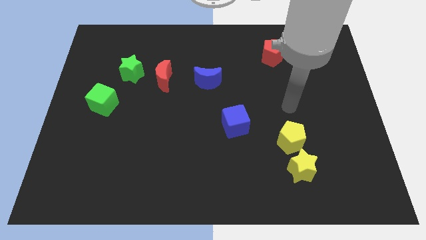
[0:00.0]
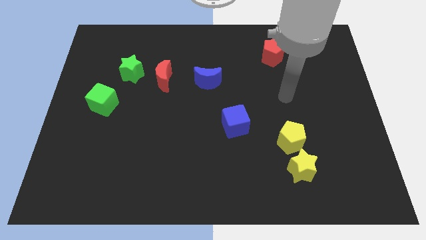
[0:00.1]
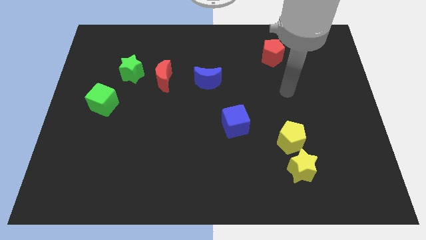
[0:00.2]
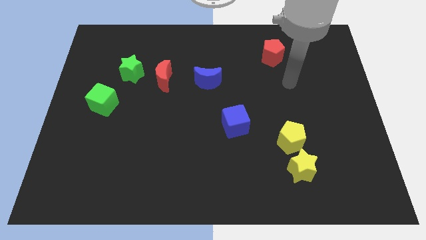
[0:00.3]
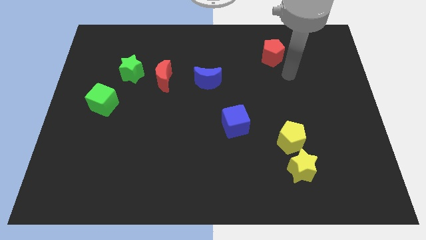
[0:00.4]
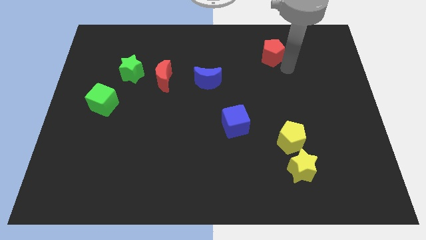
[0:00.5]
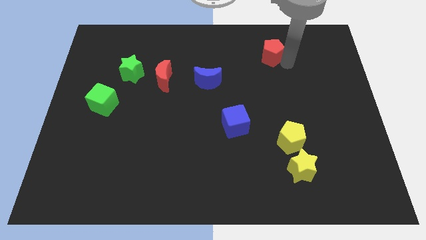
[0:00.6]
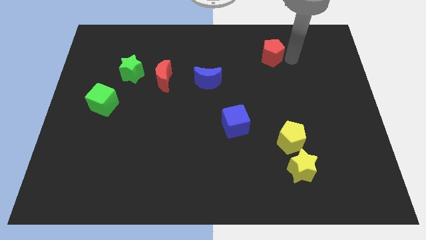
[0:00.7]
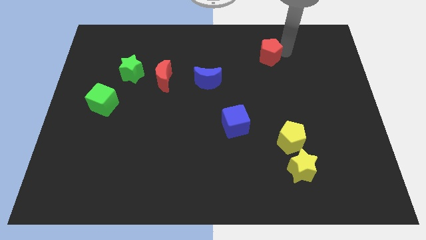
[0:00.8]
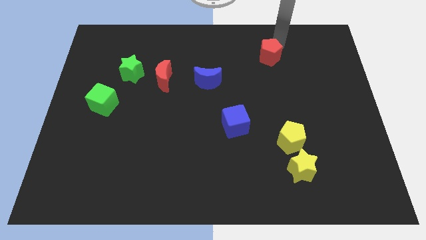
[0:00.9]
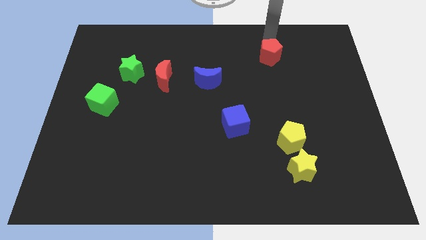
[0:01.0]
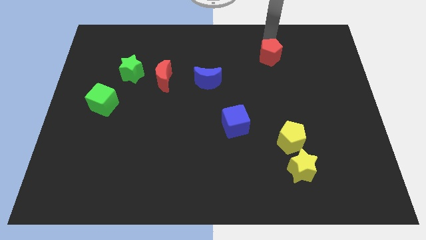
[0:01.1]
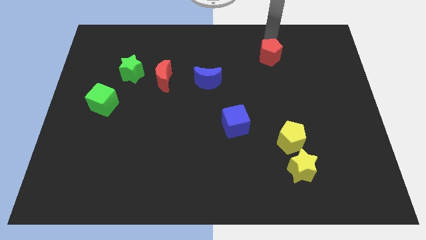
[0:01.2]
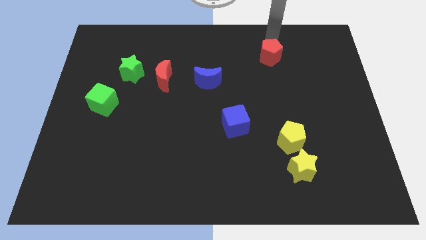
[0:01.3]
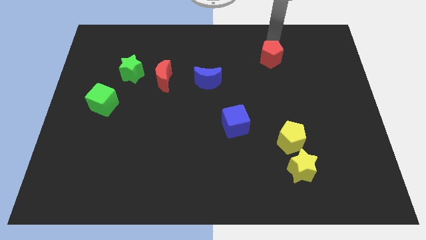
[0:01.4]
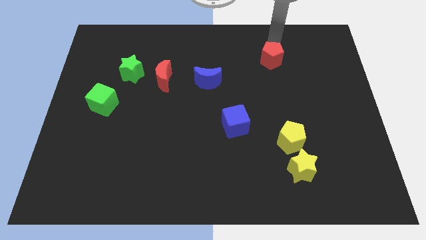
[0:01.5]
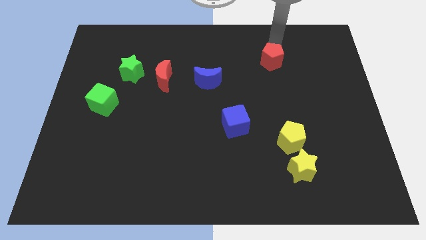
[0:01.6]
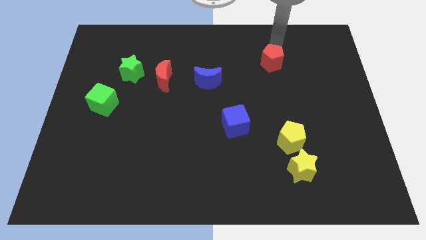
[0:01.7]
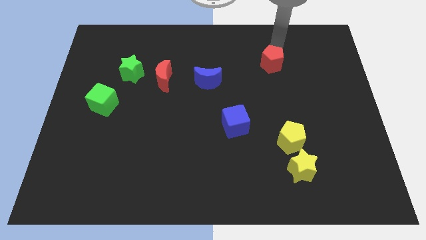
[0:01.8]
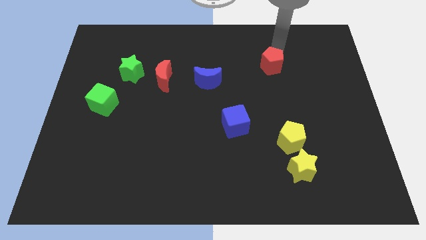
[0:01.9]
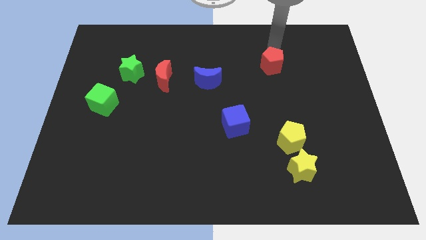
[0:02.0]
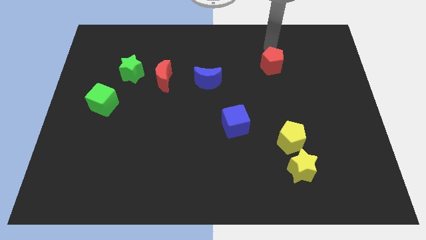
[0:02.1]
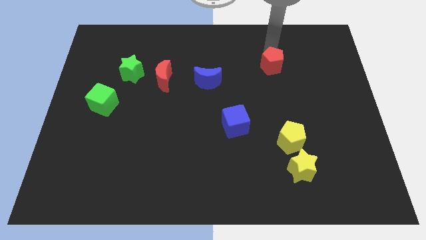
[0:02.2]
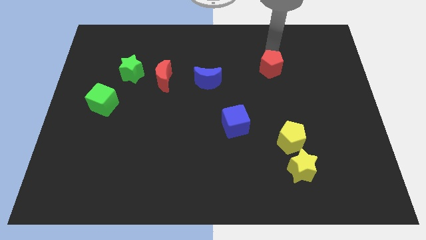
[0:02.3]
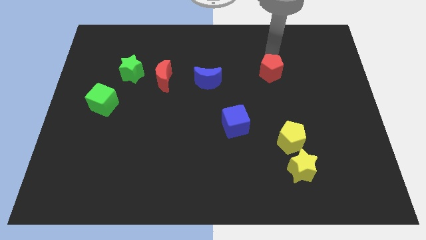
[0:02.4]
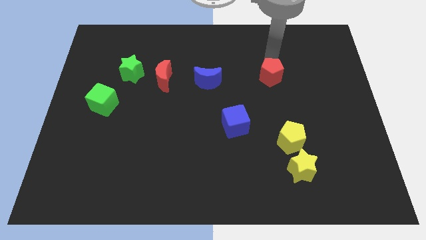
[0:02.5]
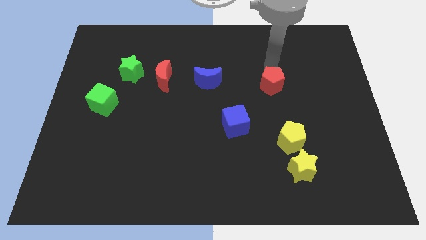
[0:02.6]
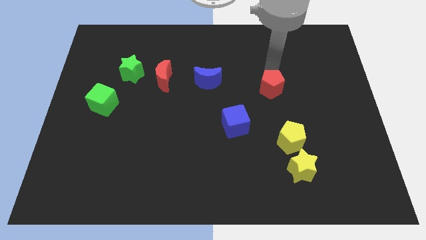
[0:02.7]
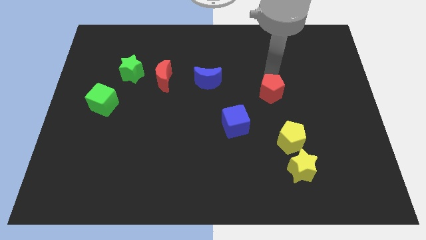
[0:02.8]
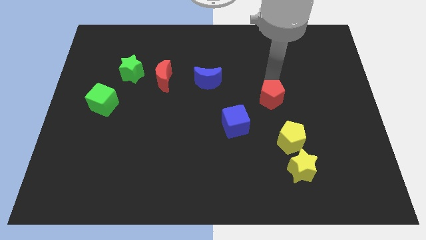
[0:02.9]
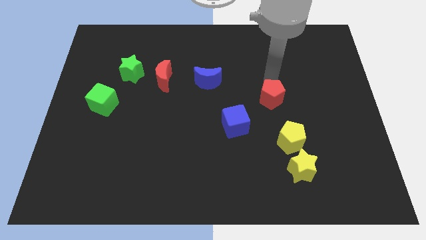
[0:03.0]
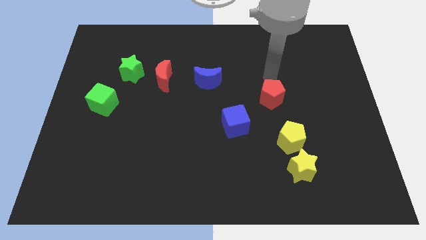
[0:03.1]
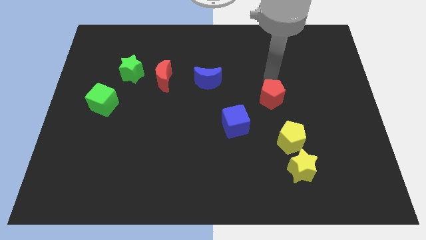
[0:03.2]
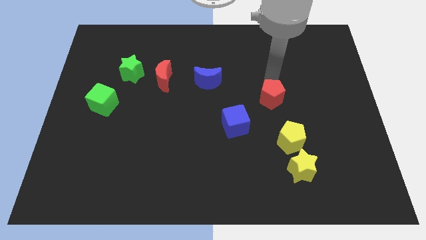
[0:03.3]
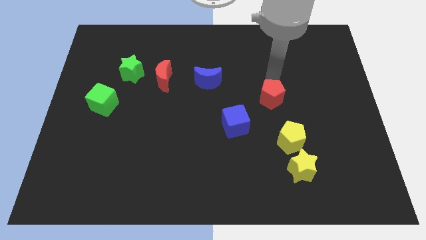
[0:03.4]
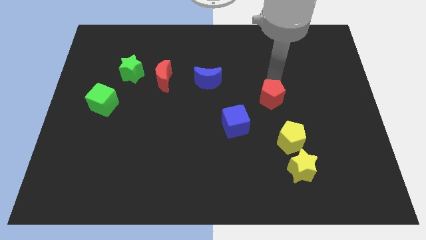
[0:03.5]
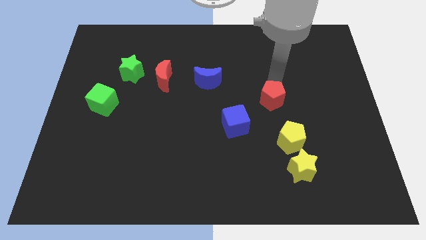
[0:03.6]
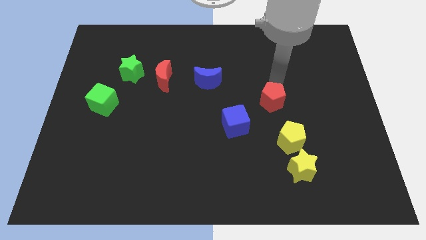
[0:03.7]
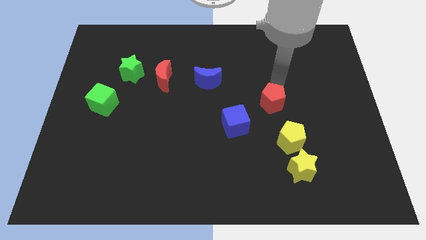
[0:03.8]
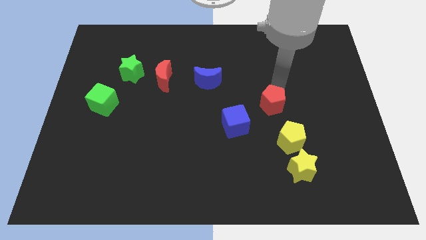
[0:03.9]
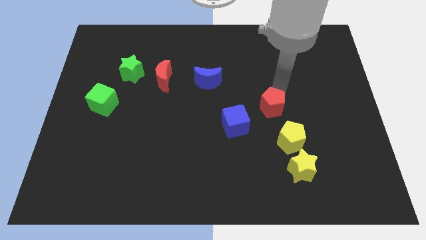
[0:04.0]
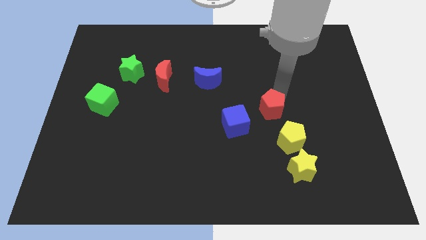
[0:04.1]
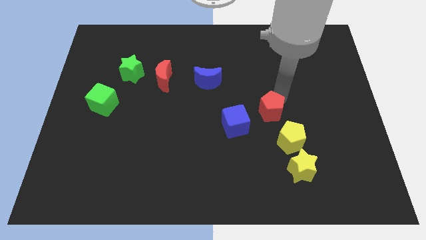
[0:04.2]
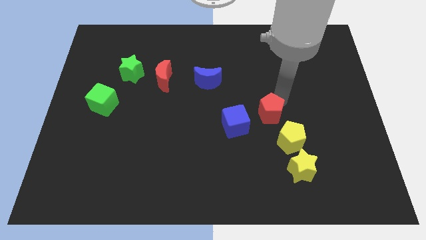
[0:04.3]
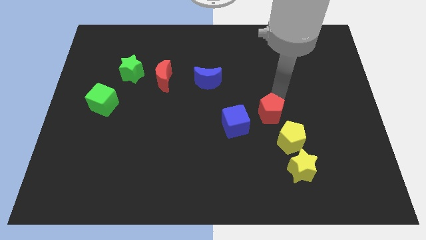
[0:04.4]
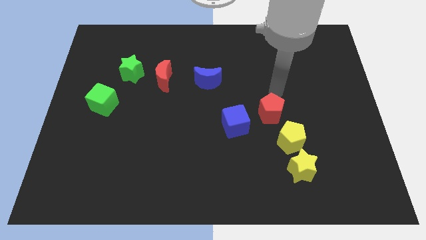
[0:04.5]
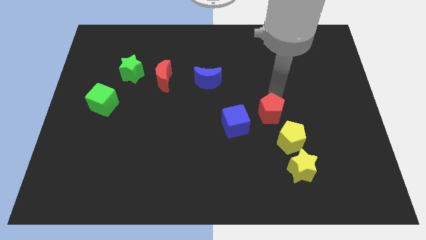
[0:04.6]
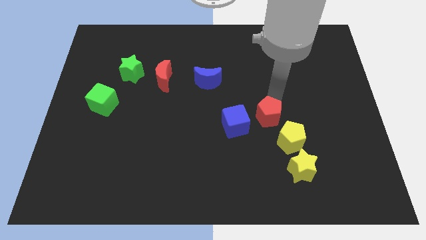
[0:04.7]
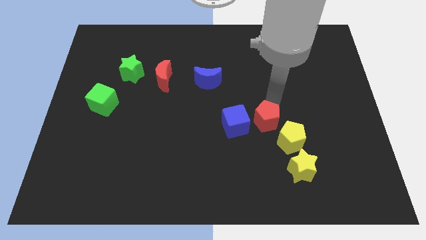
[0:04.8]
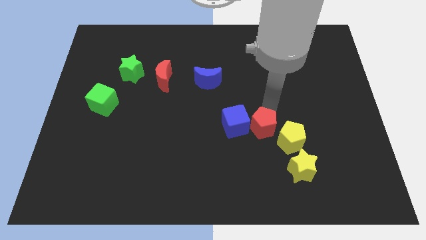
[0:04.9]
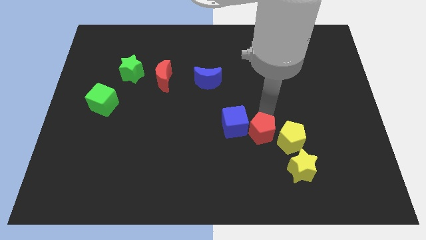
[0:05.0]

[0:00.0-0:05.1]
put the red pentagon diagonally up and to the left of the yellow star

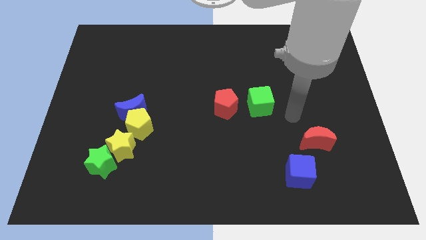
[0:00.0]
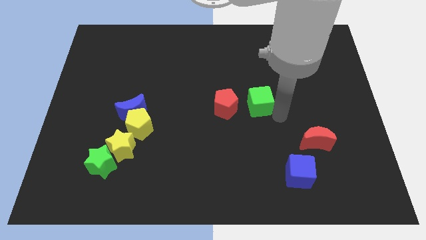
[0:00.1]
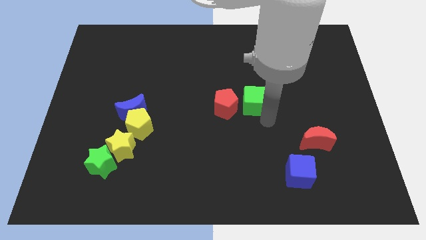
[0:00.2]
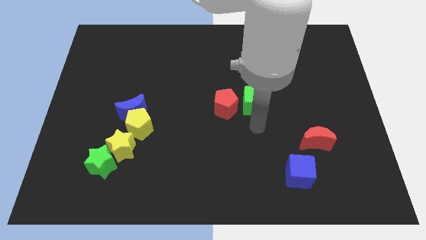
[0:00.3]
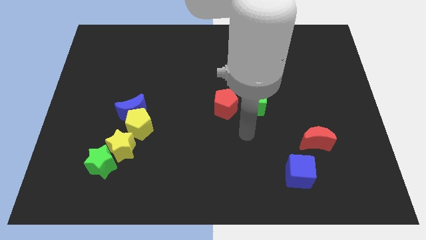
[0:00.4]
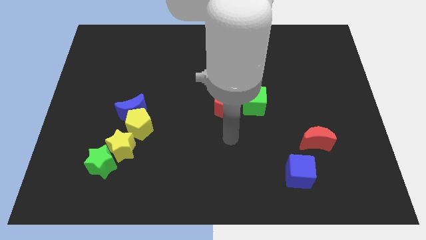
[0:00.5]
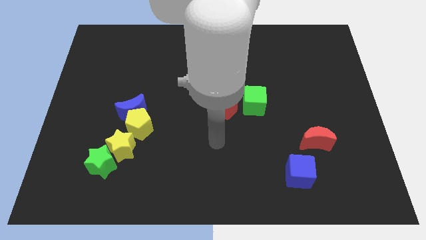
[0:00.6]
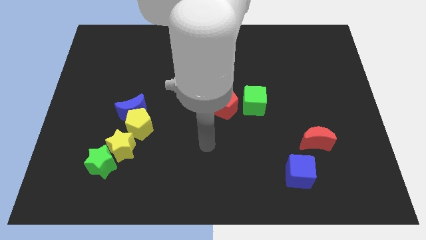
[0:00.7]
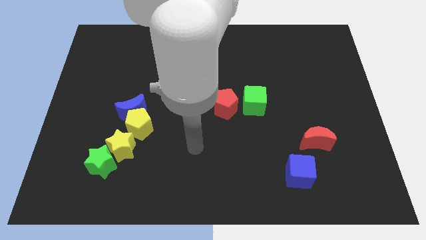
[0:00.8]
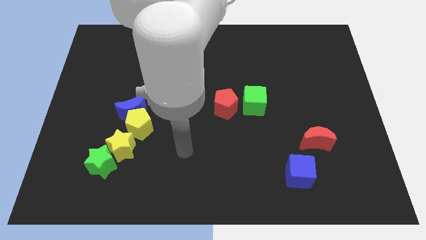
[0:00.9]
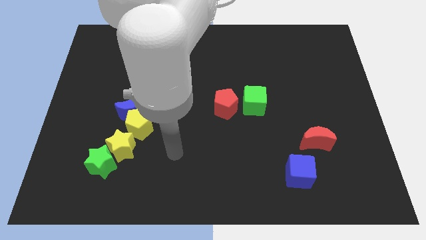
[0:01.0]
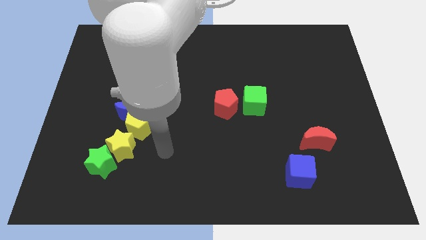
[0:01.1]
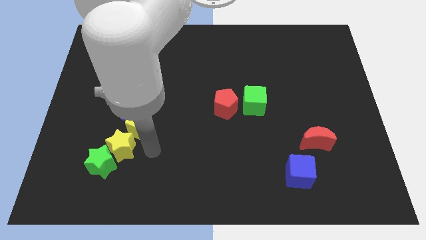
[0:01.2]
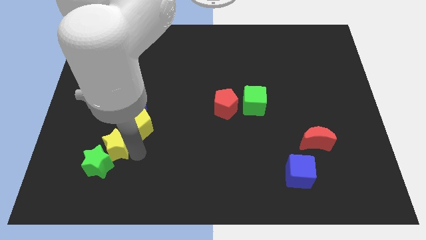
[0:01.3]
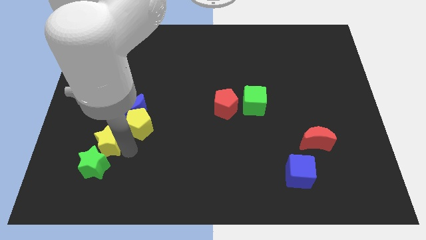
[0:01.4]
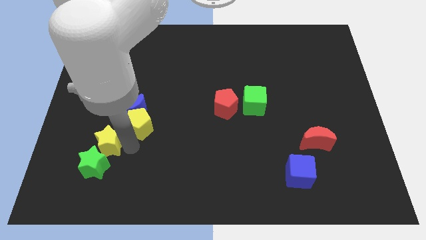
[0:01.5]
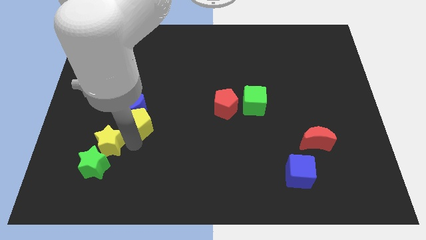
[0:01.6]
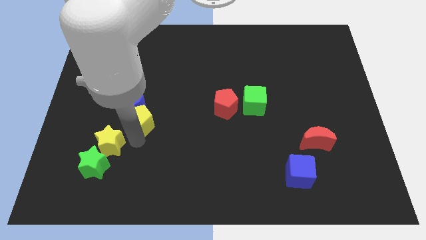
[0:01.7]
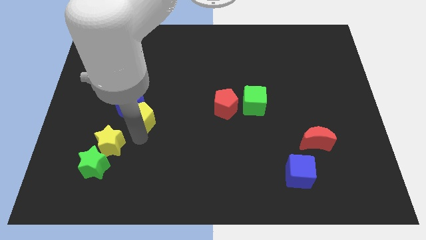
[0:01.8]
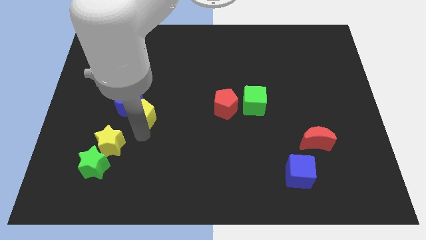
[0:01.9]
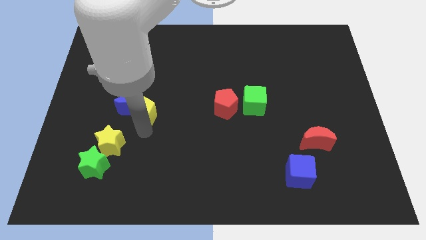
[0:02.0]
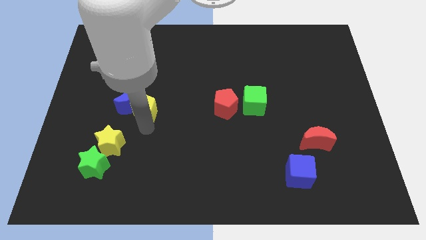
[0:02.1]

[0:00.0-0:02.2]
slide the yellow pentagon to the top right side of the blue moon

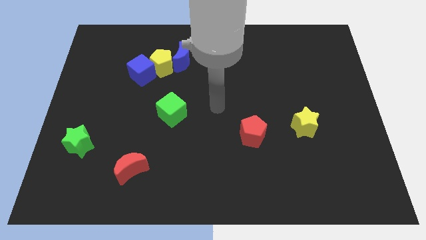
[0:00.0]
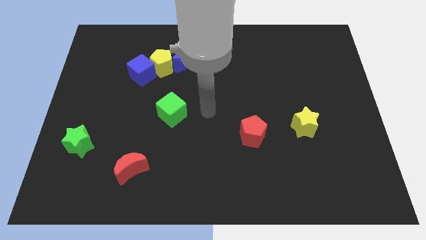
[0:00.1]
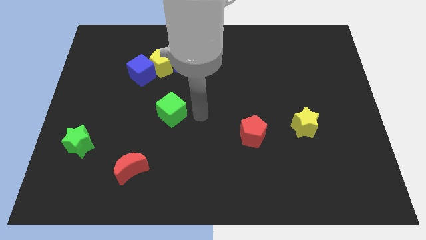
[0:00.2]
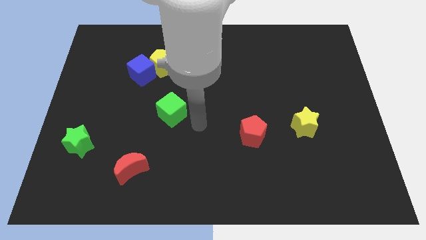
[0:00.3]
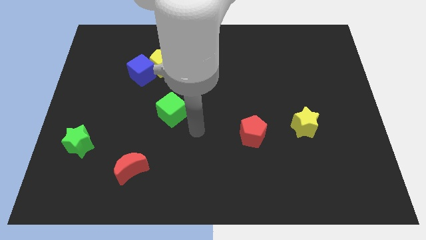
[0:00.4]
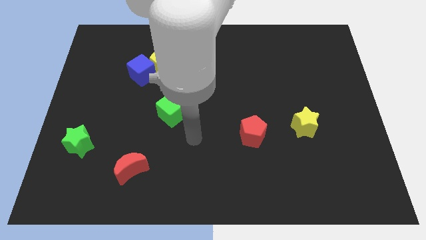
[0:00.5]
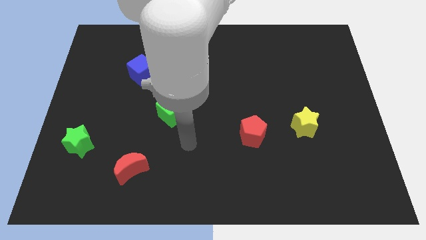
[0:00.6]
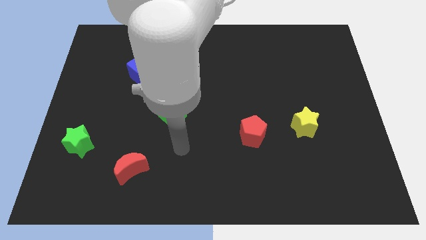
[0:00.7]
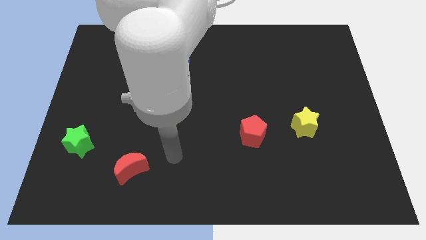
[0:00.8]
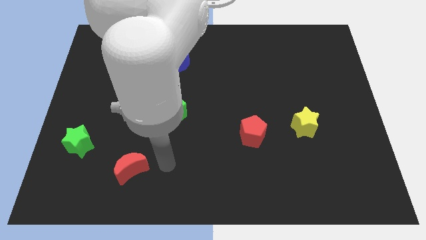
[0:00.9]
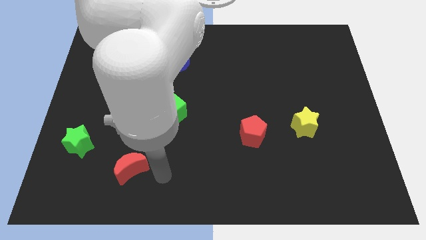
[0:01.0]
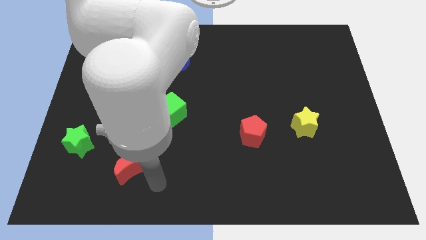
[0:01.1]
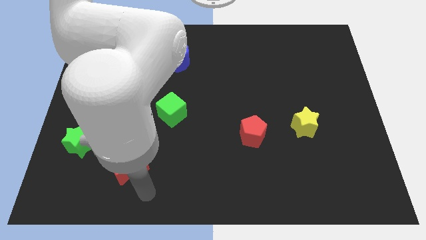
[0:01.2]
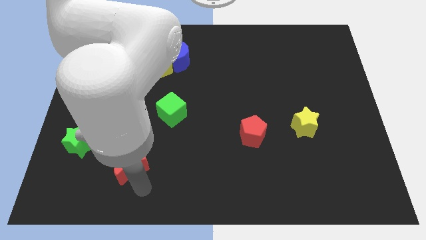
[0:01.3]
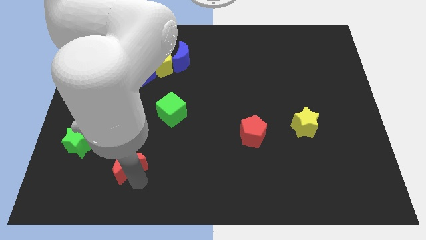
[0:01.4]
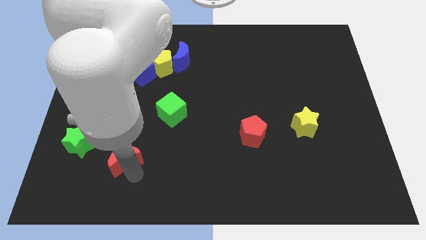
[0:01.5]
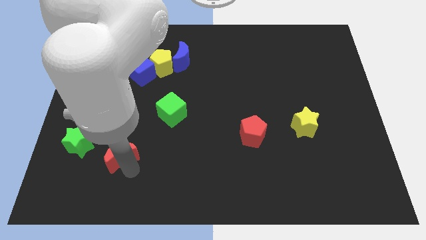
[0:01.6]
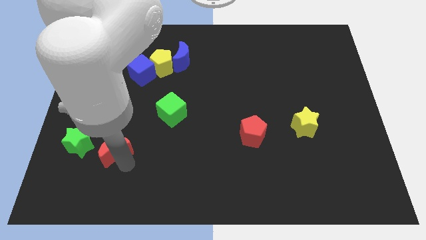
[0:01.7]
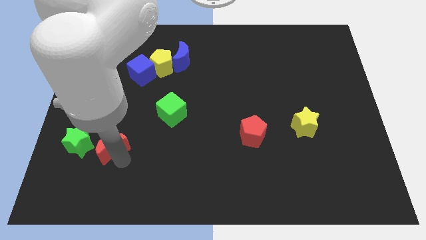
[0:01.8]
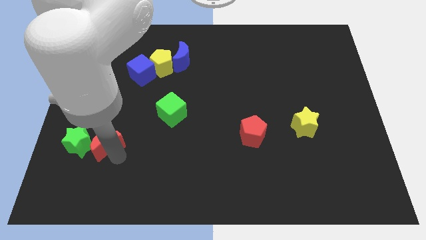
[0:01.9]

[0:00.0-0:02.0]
push the red moon to the top right side of the green star
